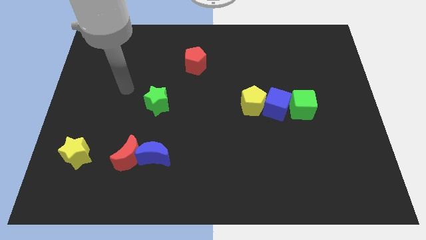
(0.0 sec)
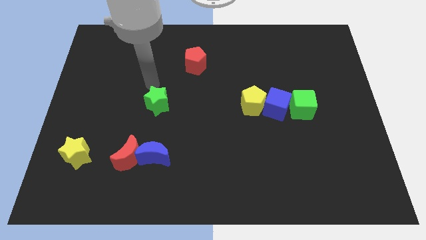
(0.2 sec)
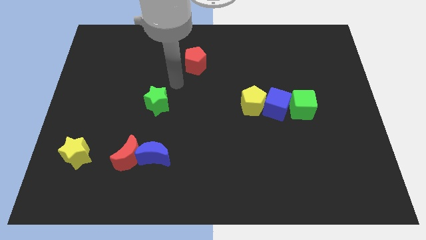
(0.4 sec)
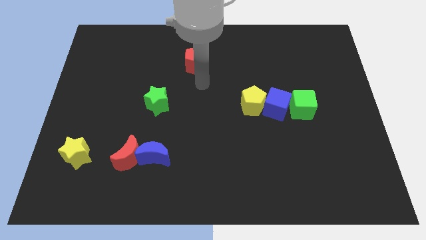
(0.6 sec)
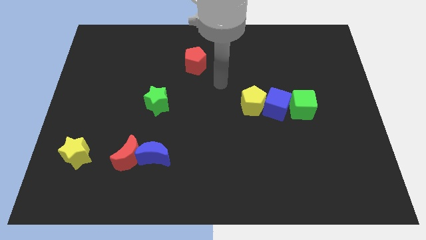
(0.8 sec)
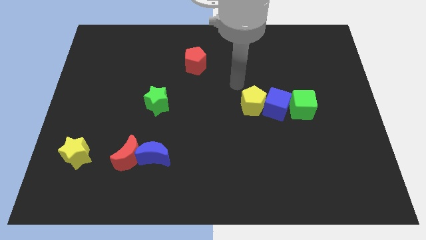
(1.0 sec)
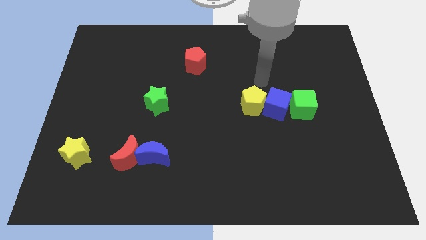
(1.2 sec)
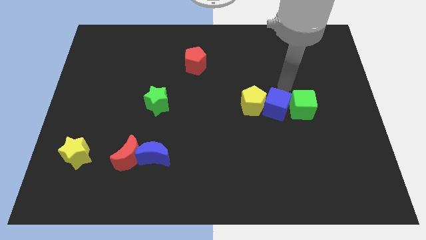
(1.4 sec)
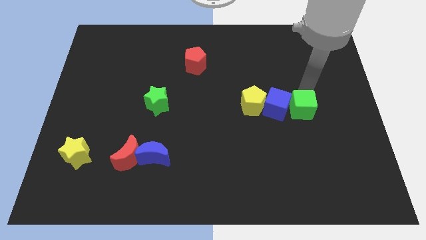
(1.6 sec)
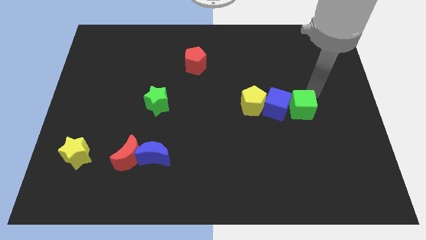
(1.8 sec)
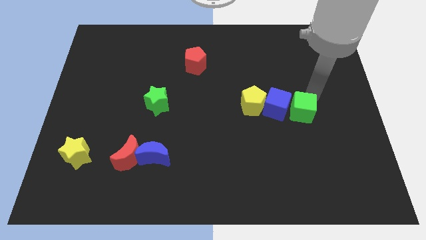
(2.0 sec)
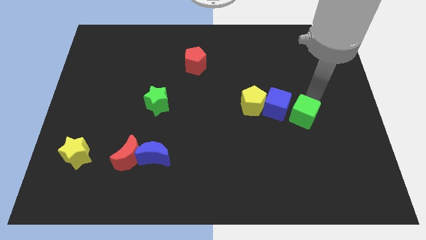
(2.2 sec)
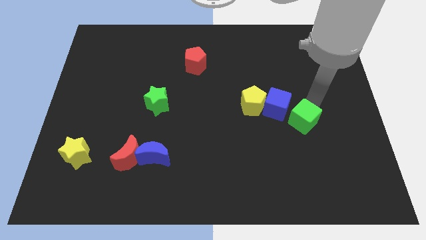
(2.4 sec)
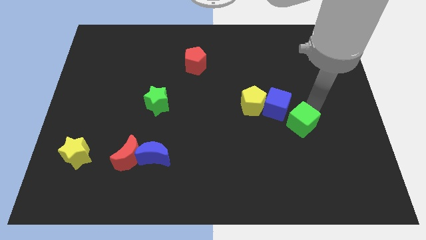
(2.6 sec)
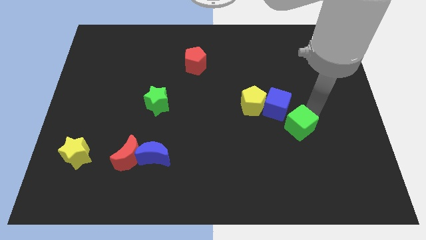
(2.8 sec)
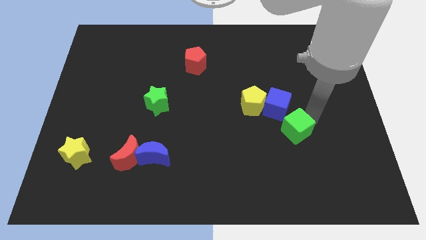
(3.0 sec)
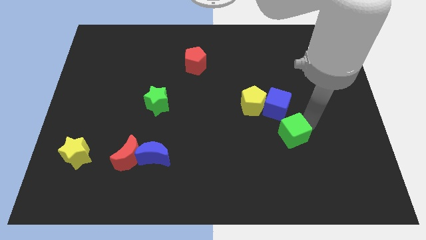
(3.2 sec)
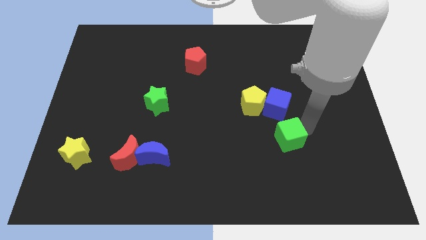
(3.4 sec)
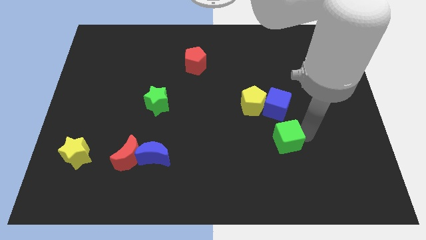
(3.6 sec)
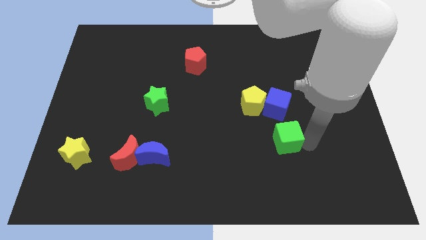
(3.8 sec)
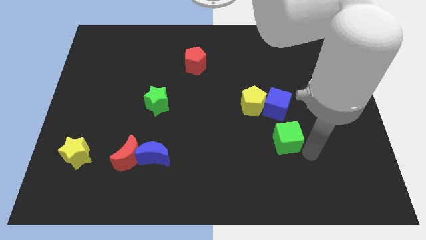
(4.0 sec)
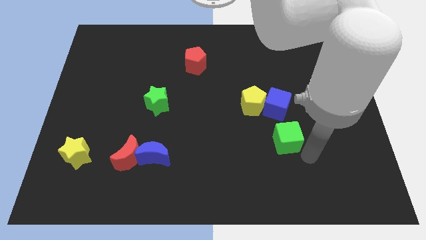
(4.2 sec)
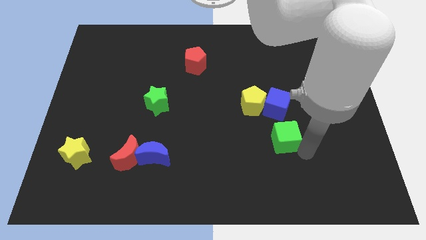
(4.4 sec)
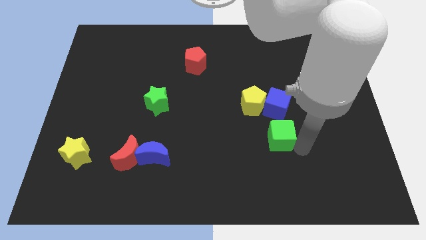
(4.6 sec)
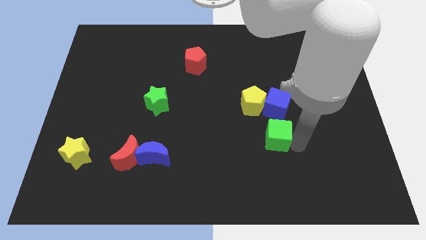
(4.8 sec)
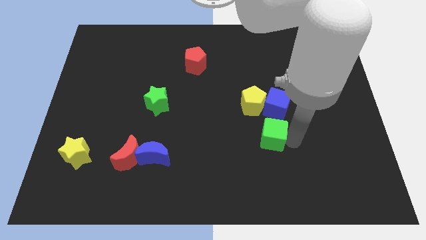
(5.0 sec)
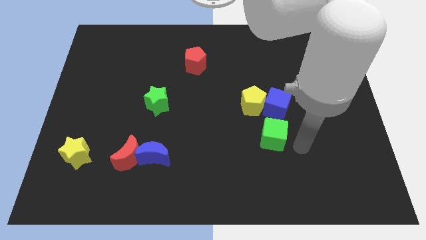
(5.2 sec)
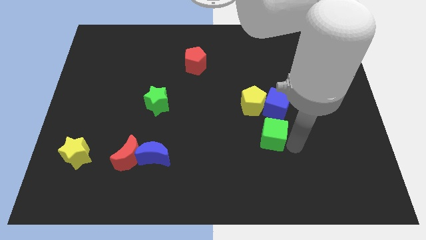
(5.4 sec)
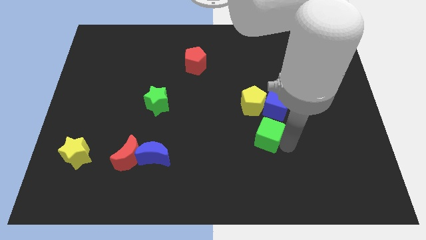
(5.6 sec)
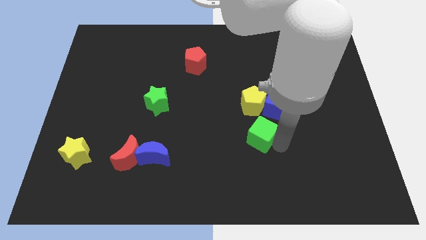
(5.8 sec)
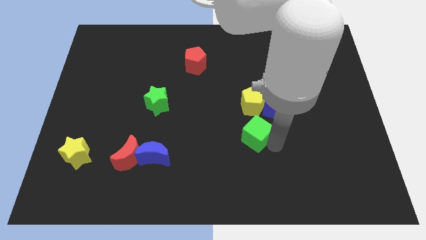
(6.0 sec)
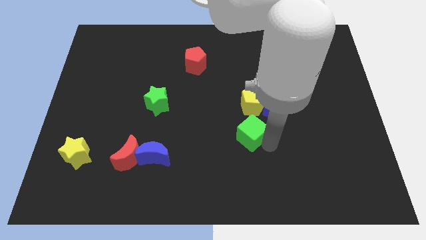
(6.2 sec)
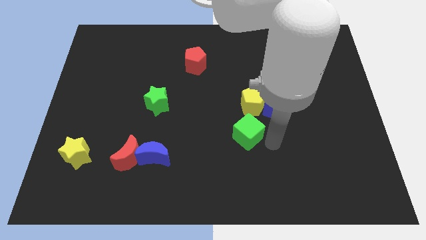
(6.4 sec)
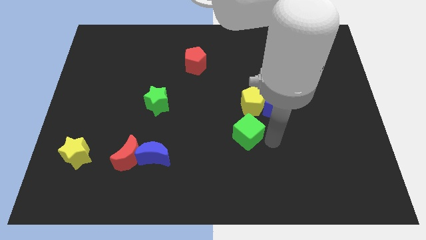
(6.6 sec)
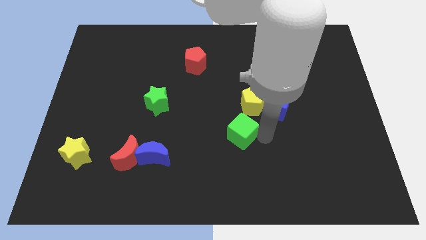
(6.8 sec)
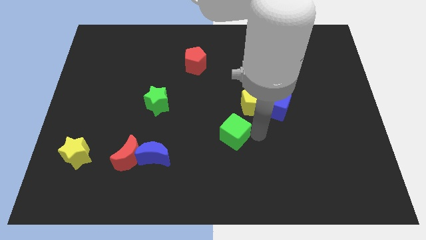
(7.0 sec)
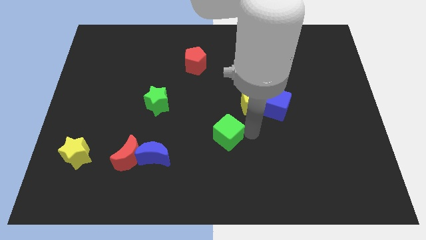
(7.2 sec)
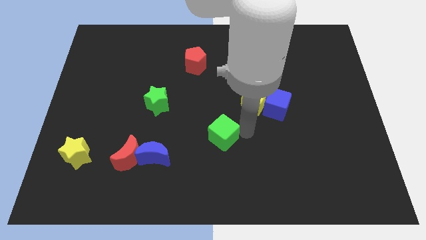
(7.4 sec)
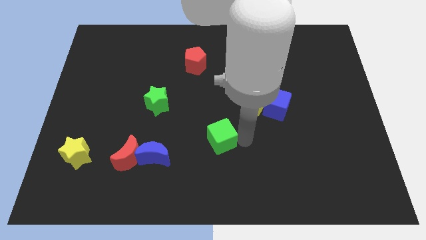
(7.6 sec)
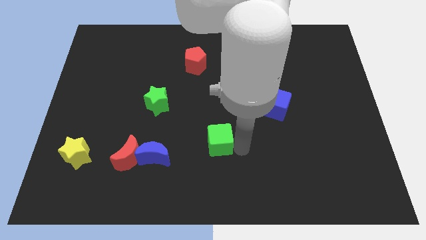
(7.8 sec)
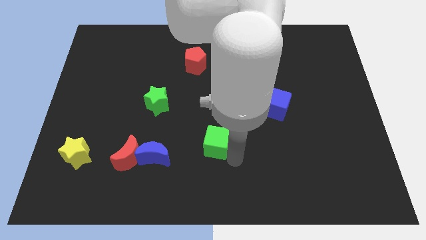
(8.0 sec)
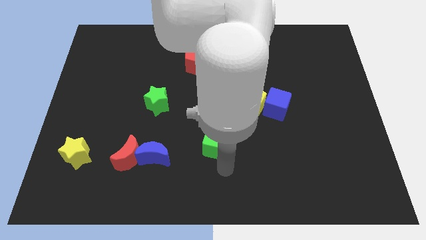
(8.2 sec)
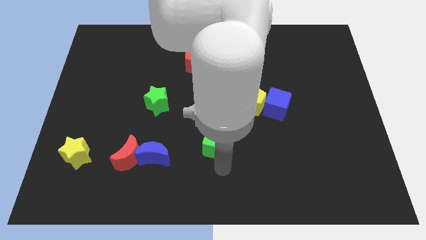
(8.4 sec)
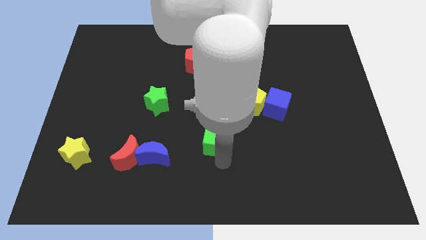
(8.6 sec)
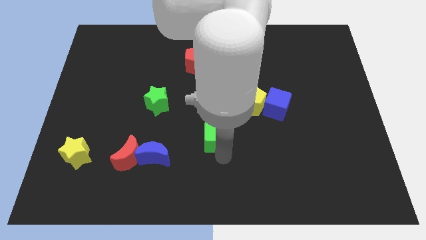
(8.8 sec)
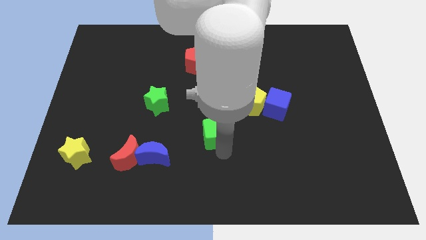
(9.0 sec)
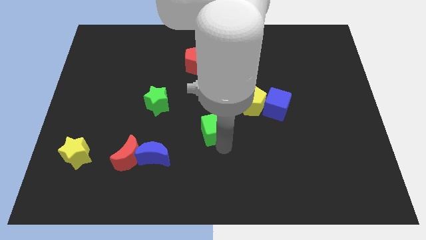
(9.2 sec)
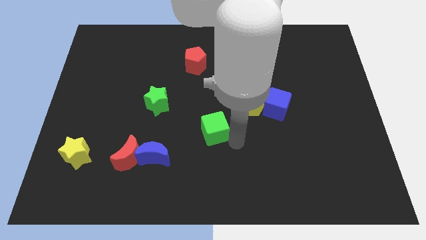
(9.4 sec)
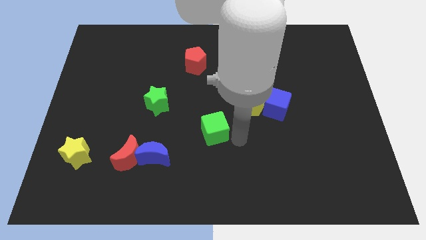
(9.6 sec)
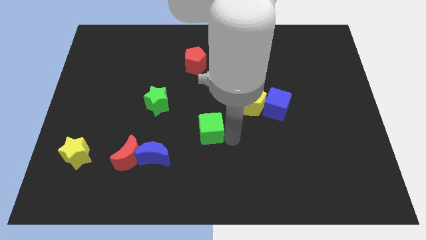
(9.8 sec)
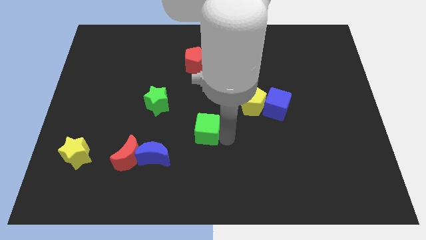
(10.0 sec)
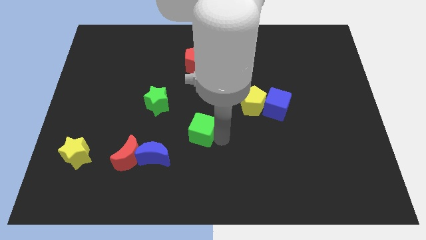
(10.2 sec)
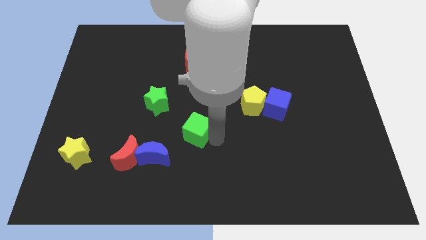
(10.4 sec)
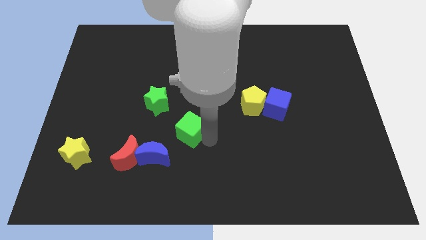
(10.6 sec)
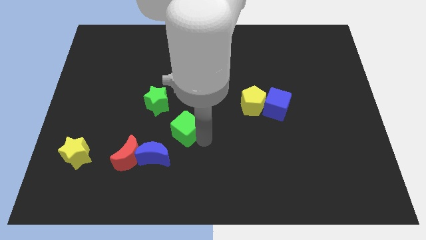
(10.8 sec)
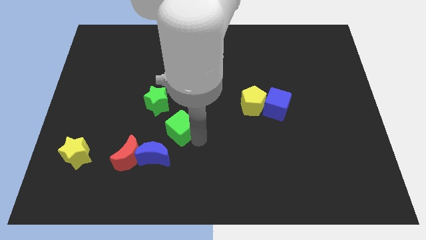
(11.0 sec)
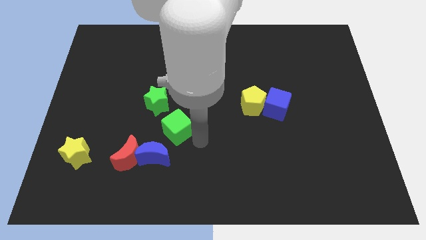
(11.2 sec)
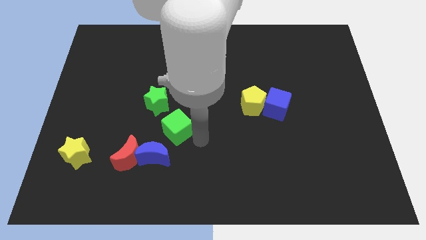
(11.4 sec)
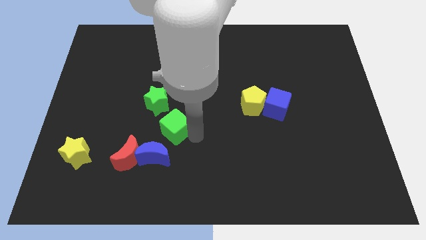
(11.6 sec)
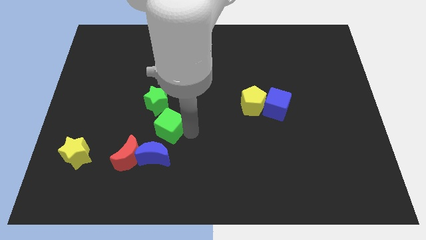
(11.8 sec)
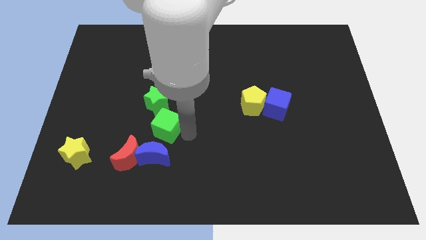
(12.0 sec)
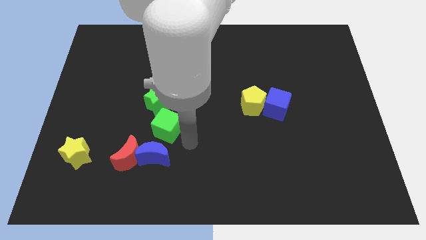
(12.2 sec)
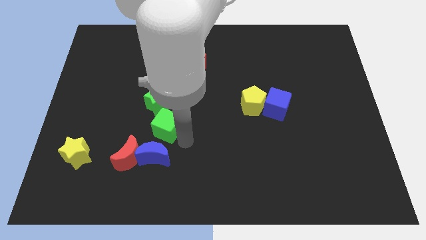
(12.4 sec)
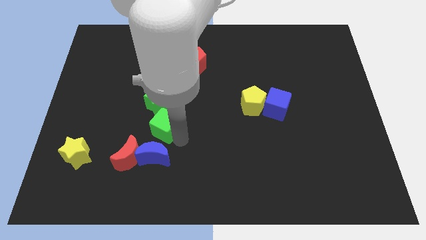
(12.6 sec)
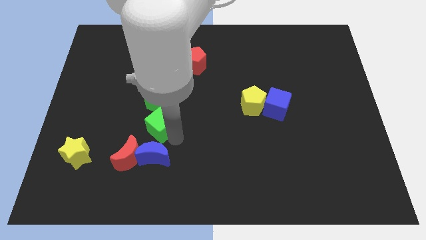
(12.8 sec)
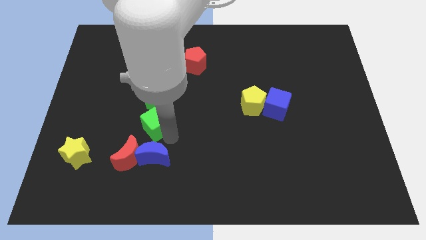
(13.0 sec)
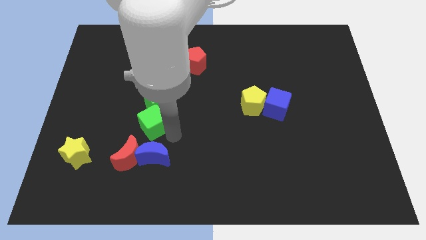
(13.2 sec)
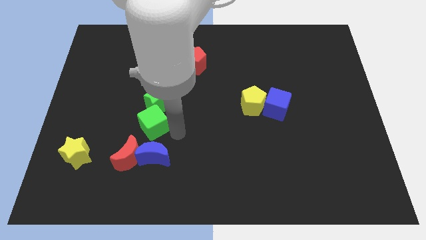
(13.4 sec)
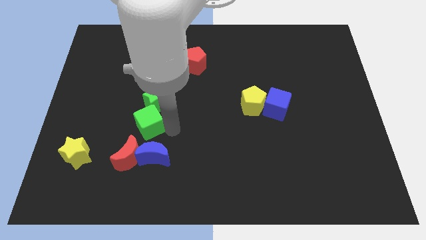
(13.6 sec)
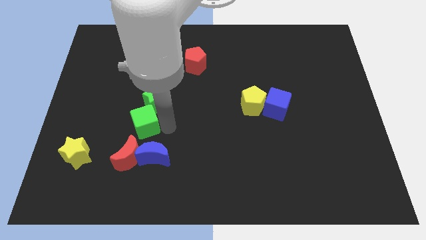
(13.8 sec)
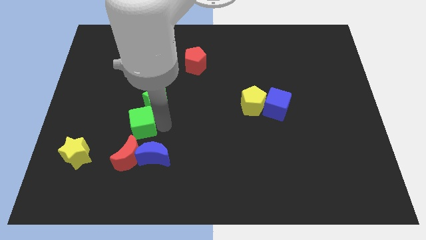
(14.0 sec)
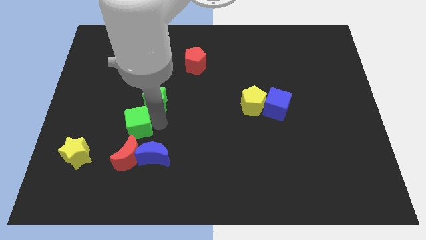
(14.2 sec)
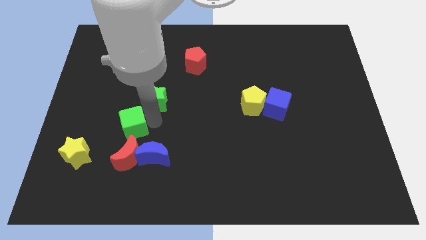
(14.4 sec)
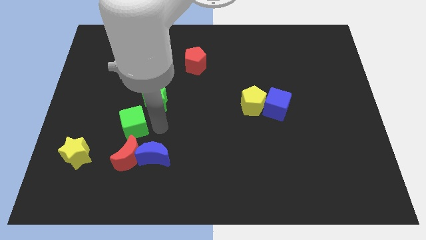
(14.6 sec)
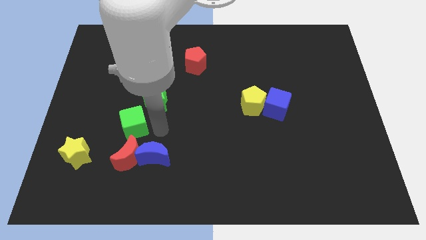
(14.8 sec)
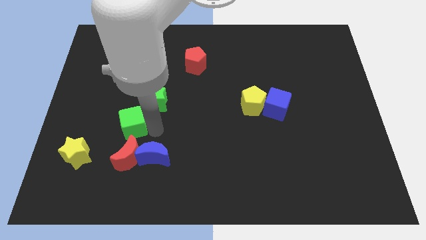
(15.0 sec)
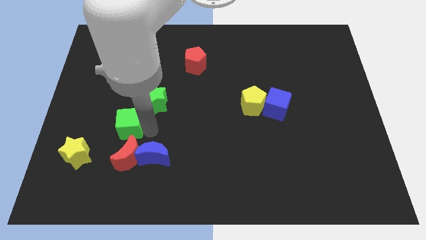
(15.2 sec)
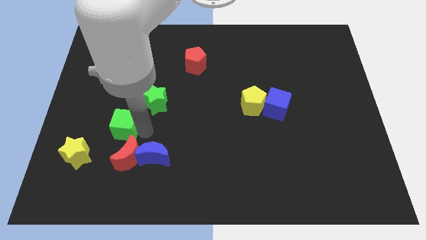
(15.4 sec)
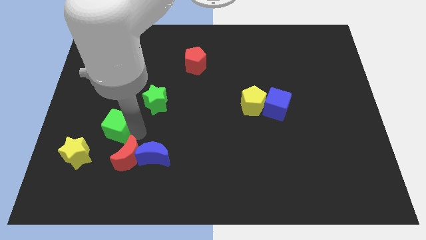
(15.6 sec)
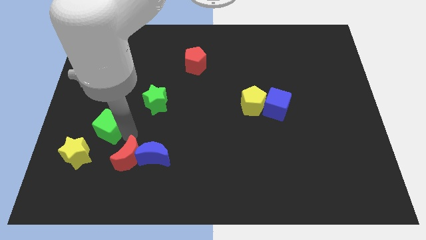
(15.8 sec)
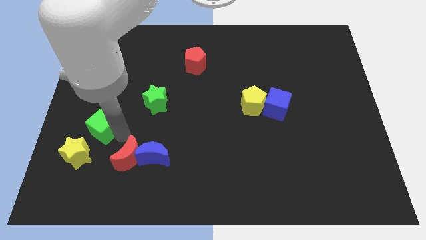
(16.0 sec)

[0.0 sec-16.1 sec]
push the green cube to the top side of the yellow star
